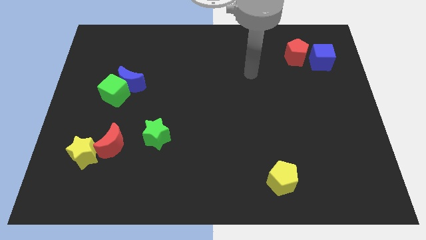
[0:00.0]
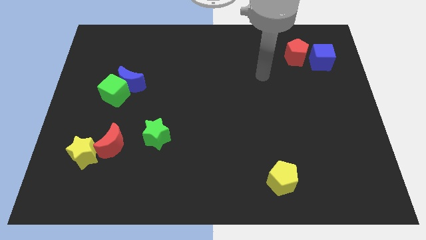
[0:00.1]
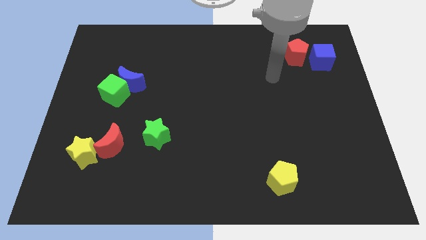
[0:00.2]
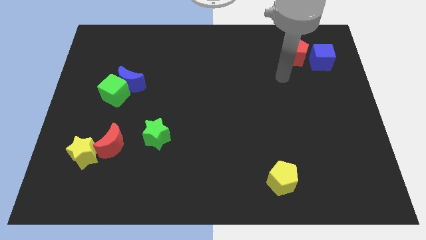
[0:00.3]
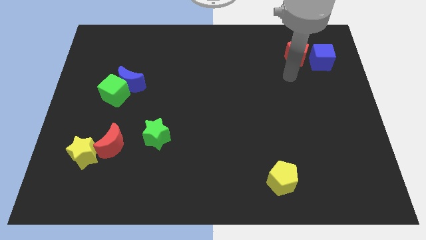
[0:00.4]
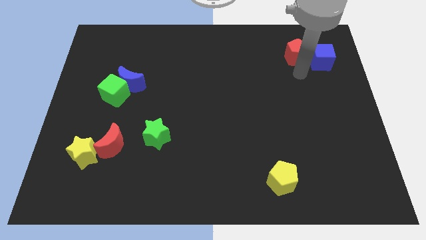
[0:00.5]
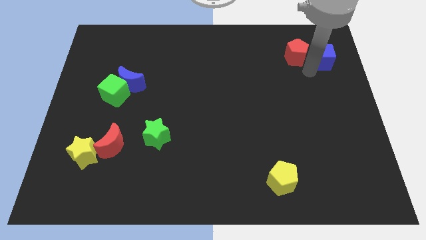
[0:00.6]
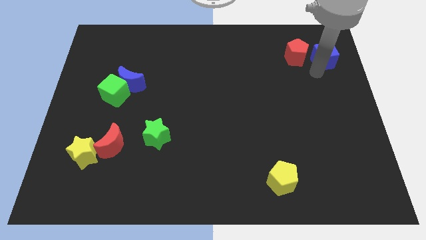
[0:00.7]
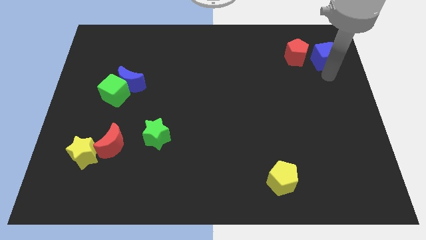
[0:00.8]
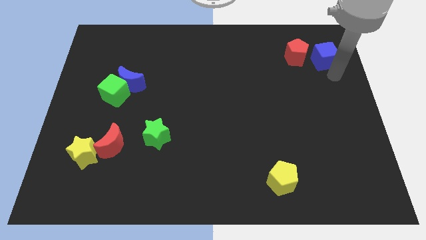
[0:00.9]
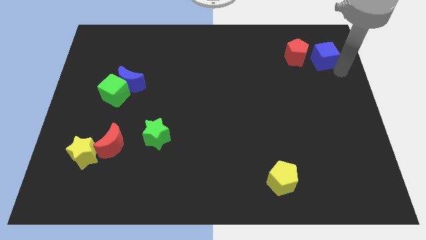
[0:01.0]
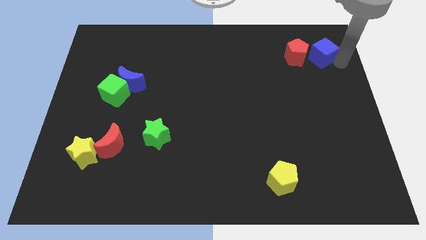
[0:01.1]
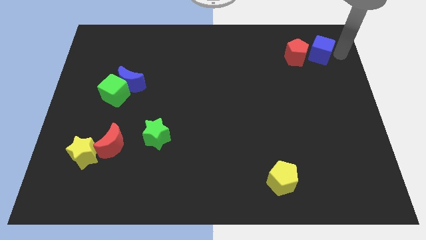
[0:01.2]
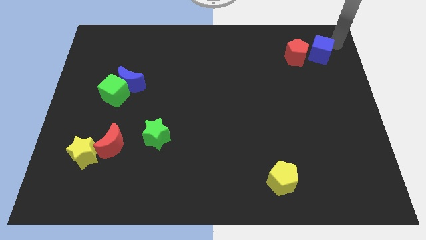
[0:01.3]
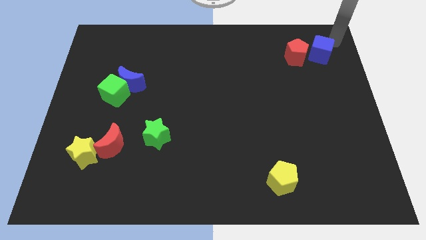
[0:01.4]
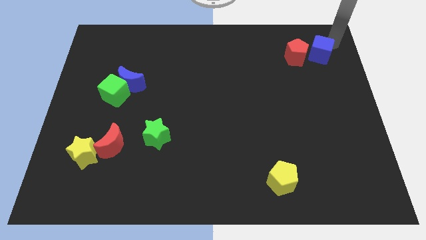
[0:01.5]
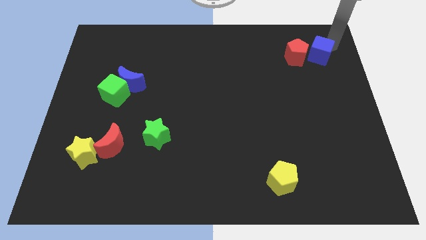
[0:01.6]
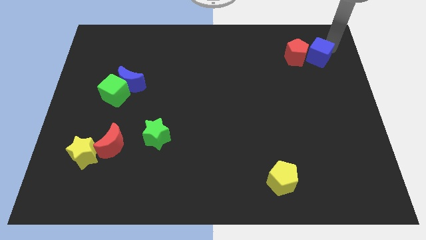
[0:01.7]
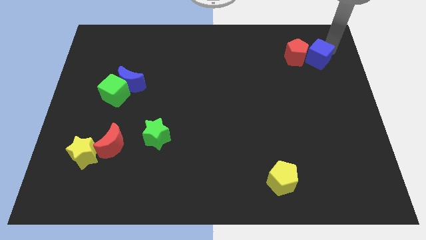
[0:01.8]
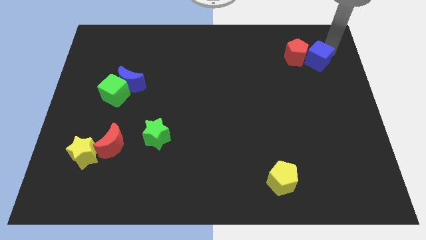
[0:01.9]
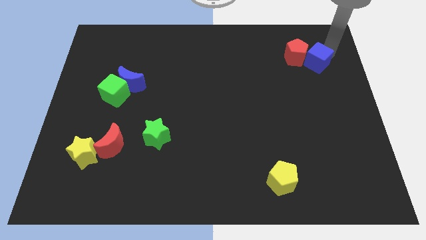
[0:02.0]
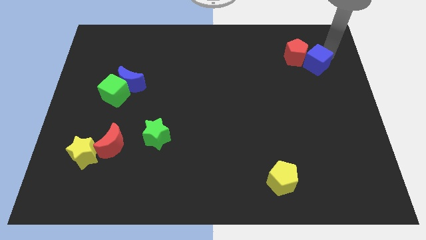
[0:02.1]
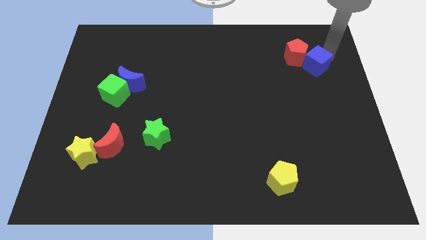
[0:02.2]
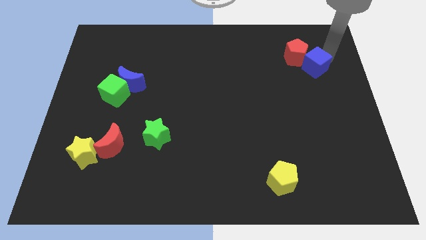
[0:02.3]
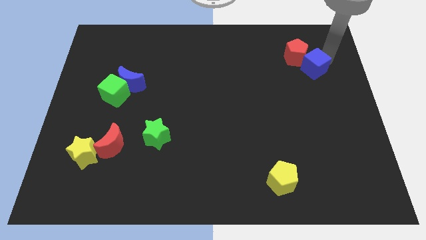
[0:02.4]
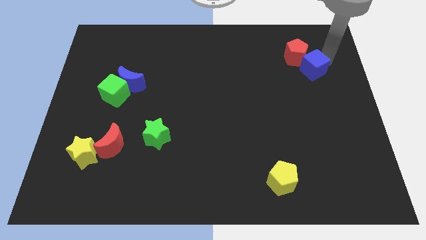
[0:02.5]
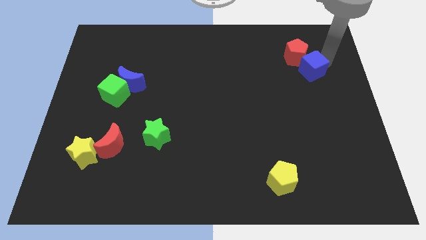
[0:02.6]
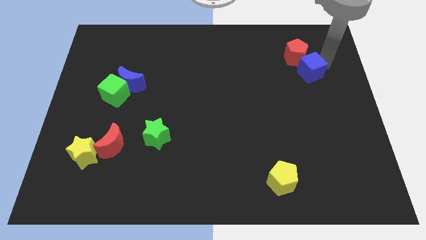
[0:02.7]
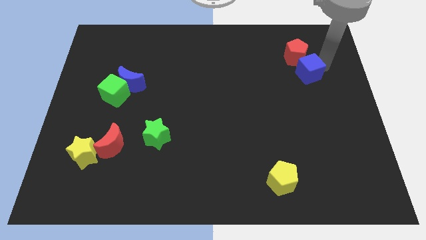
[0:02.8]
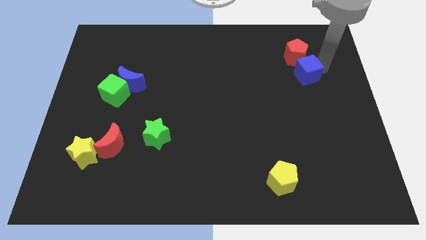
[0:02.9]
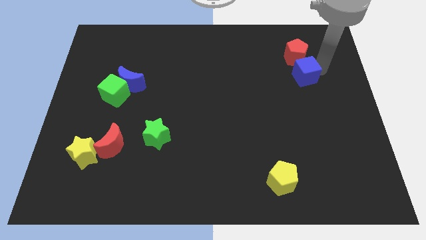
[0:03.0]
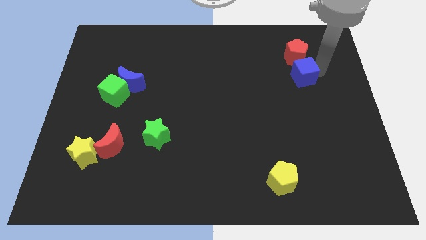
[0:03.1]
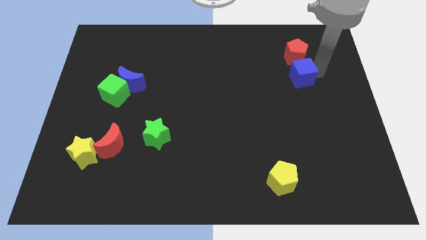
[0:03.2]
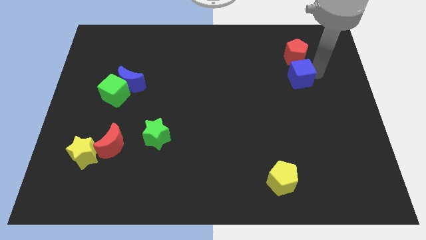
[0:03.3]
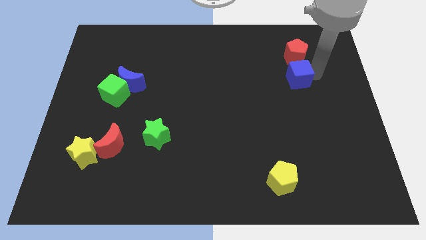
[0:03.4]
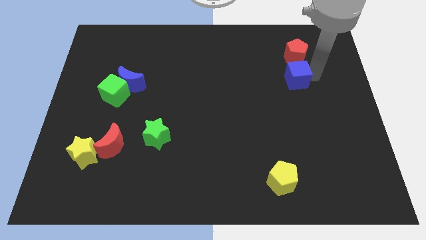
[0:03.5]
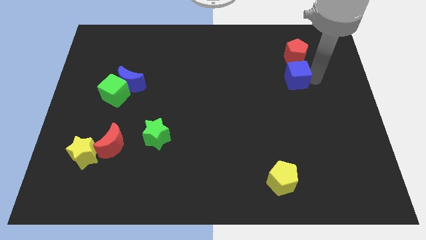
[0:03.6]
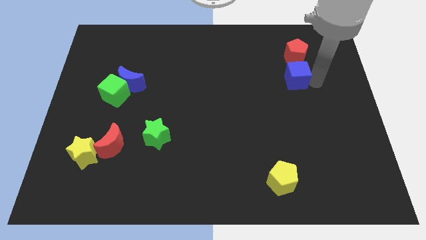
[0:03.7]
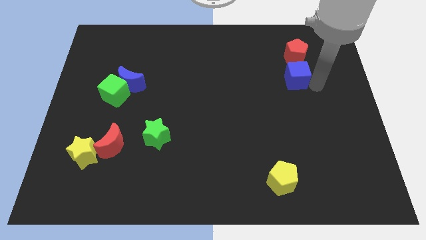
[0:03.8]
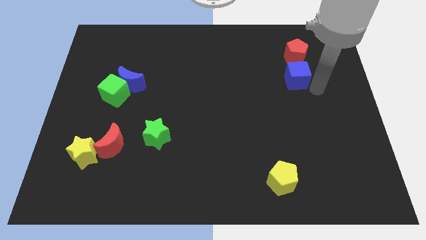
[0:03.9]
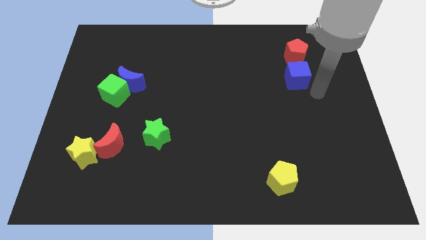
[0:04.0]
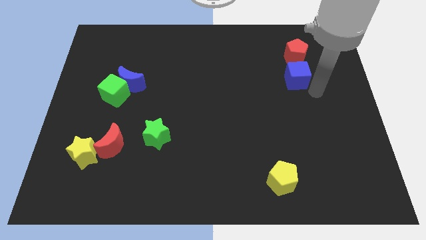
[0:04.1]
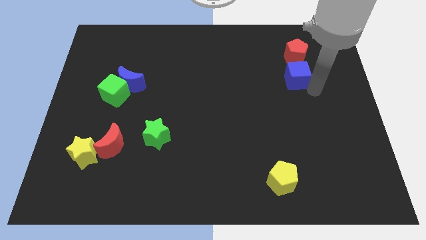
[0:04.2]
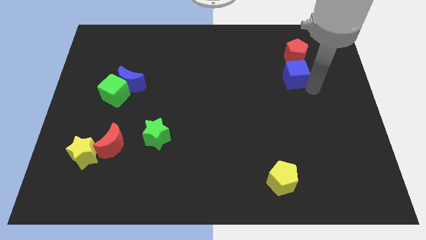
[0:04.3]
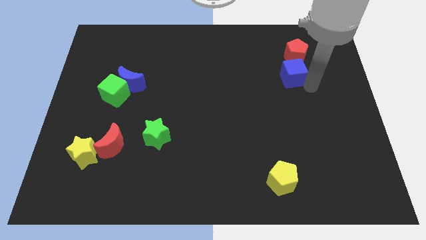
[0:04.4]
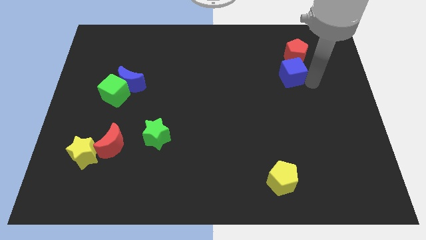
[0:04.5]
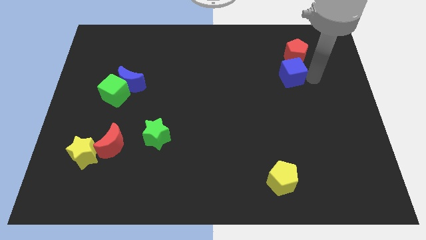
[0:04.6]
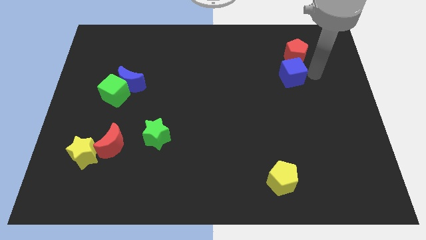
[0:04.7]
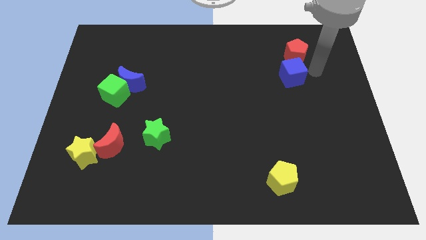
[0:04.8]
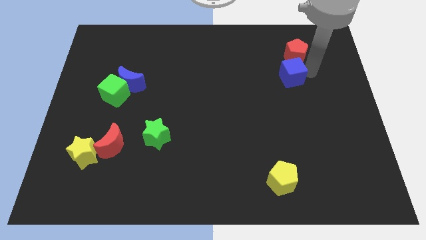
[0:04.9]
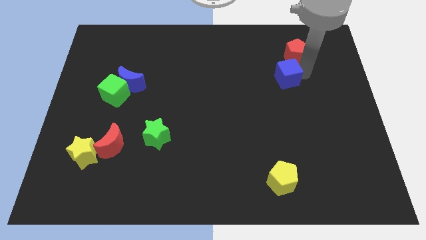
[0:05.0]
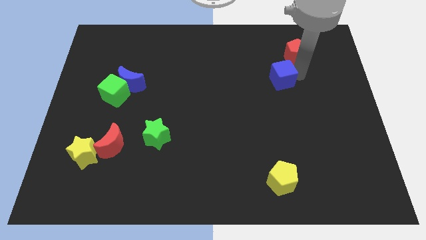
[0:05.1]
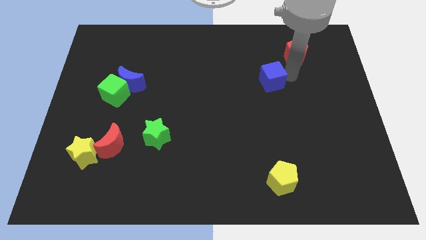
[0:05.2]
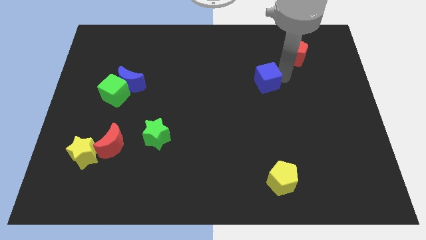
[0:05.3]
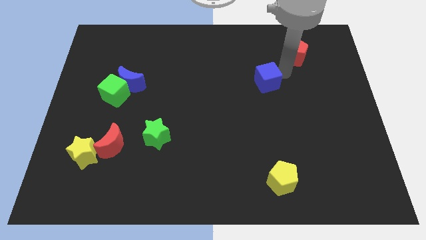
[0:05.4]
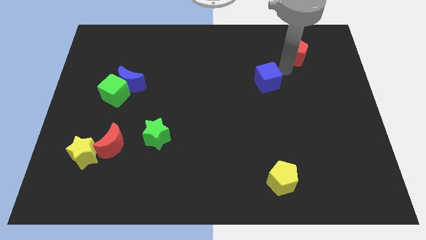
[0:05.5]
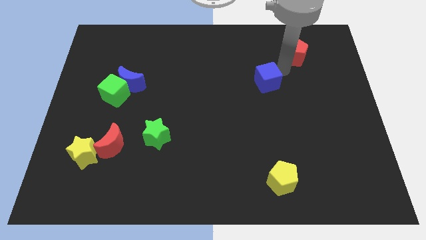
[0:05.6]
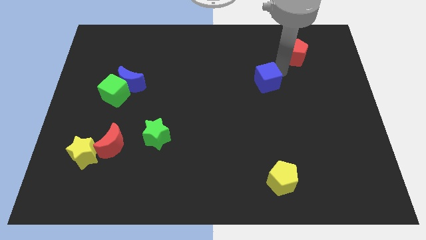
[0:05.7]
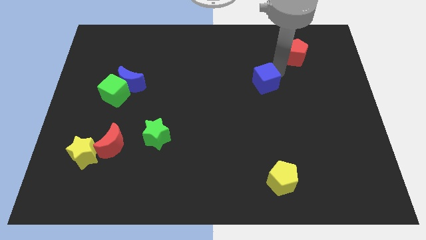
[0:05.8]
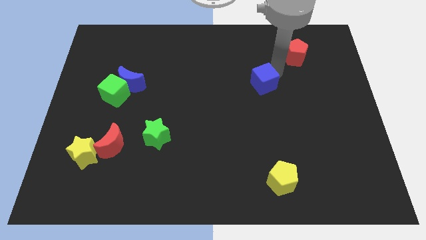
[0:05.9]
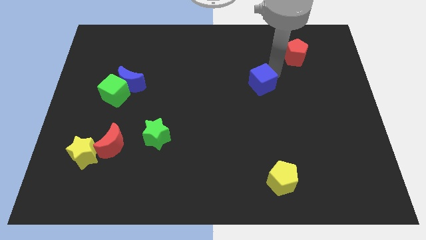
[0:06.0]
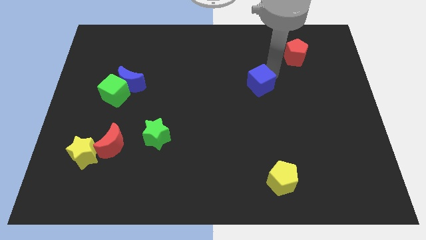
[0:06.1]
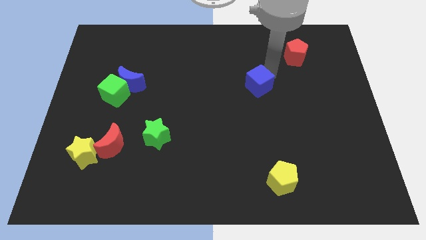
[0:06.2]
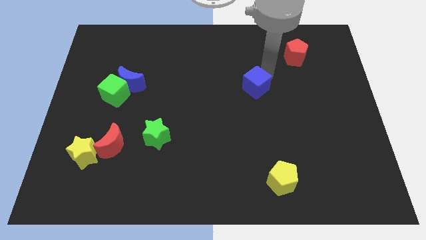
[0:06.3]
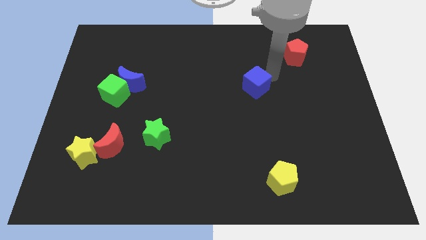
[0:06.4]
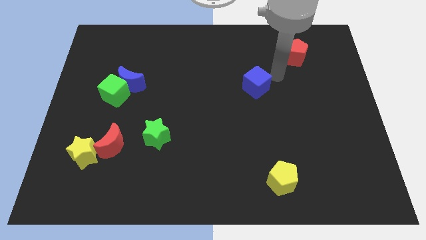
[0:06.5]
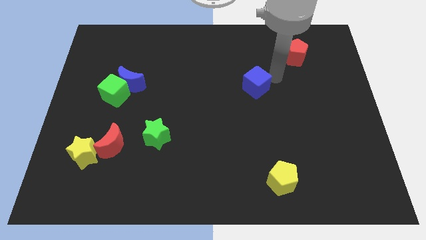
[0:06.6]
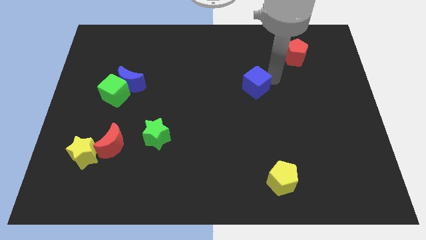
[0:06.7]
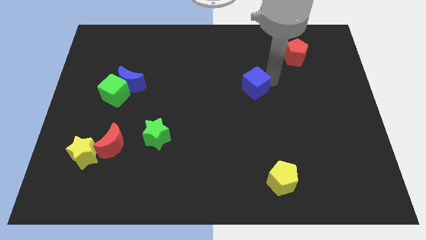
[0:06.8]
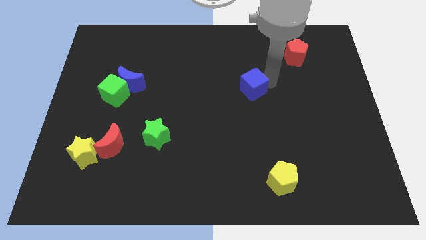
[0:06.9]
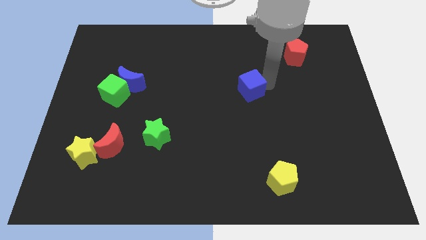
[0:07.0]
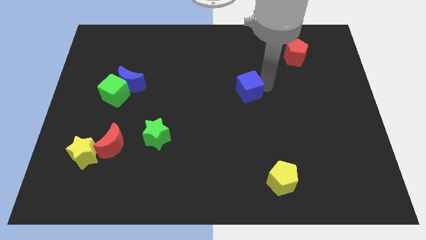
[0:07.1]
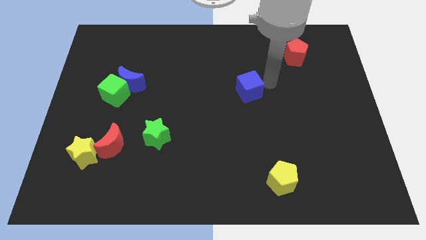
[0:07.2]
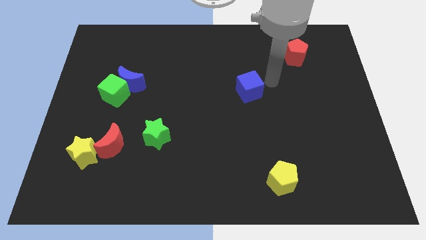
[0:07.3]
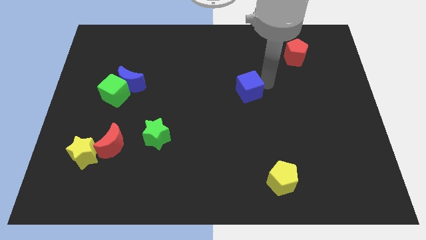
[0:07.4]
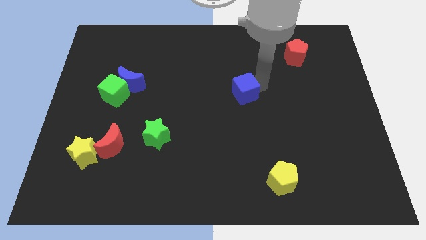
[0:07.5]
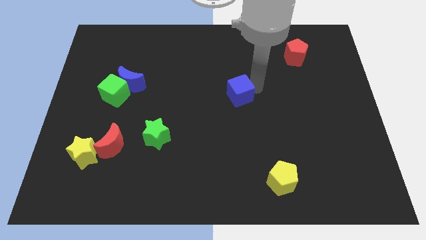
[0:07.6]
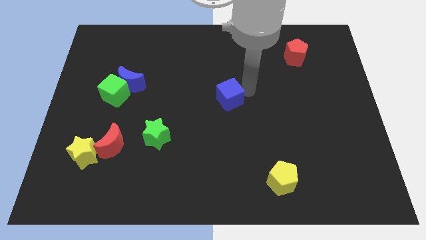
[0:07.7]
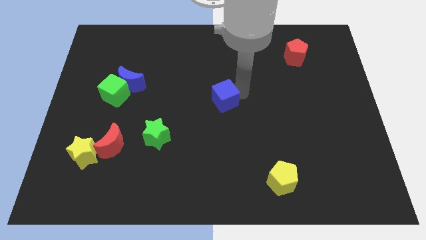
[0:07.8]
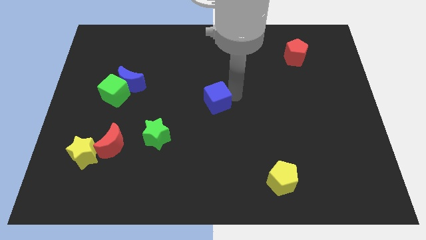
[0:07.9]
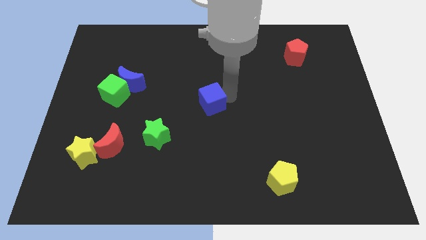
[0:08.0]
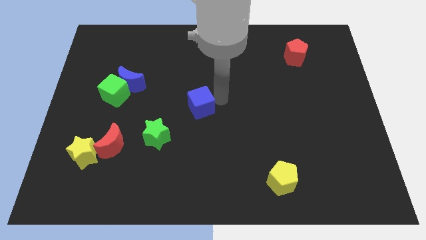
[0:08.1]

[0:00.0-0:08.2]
slide the blue cube to the top right of the green star
